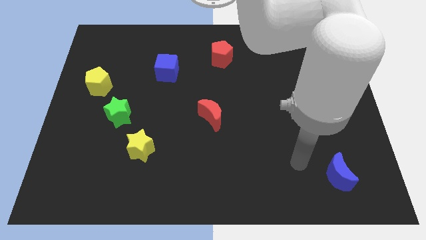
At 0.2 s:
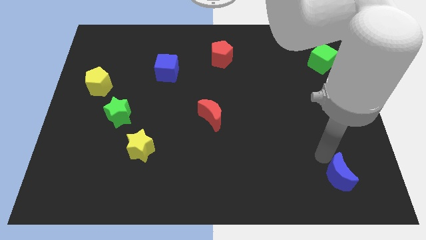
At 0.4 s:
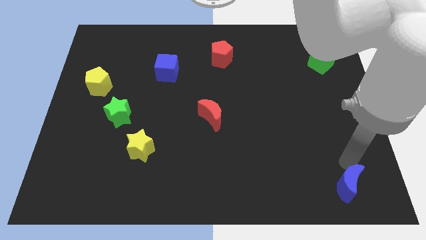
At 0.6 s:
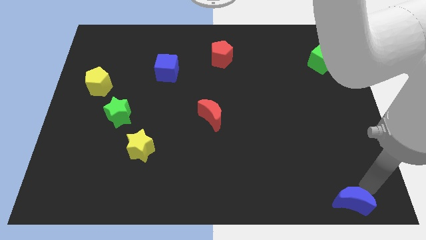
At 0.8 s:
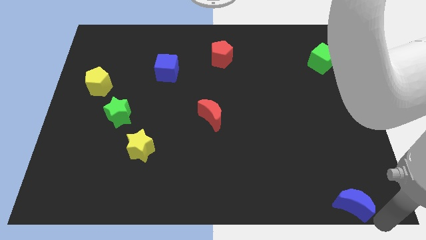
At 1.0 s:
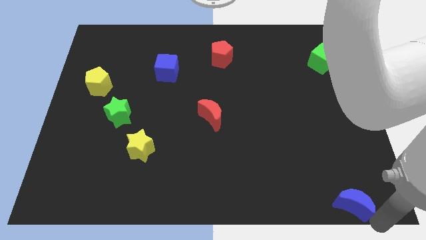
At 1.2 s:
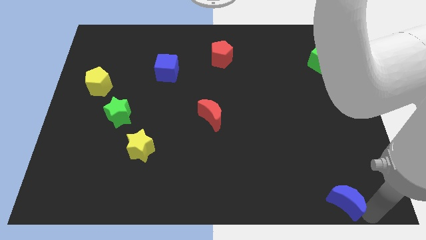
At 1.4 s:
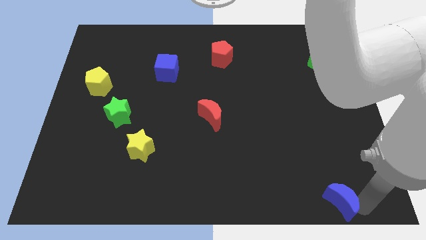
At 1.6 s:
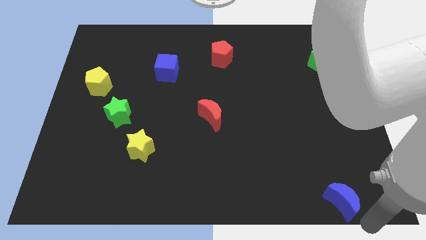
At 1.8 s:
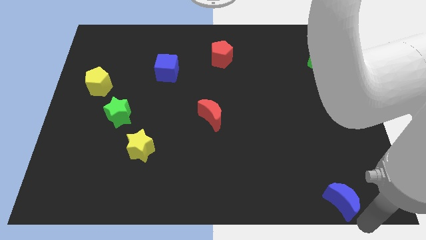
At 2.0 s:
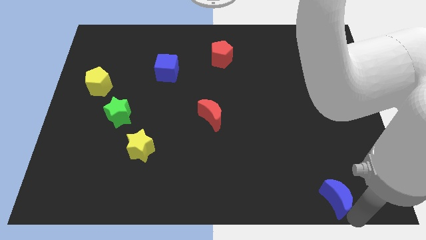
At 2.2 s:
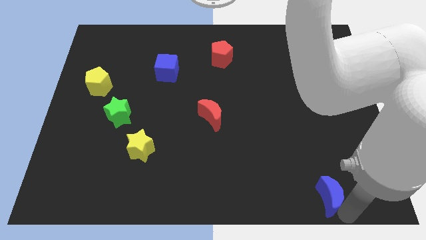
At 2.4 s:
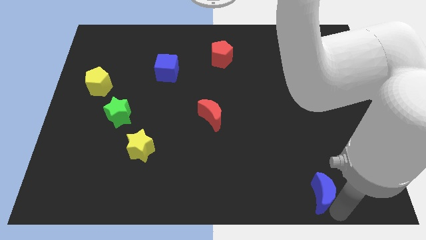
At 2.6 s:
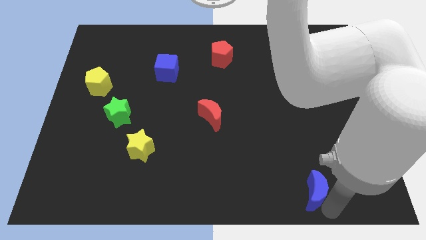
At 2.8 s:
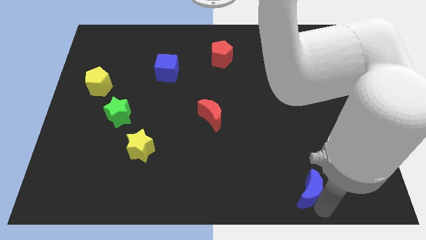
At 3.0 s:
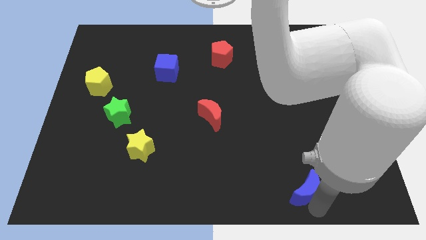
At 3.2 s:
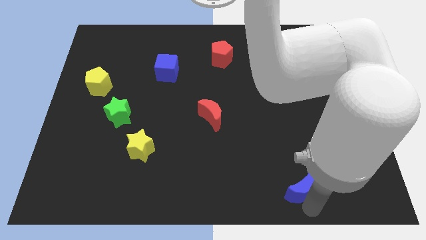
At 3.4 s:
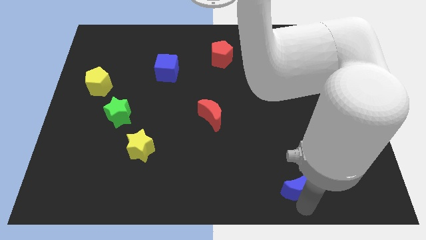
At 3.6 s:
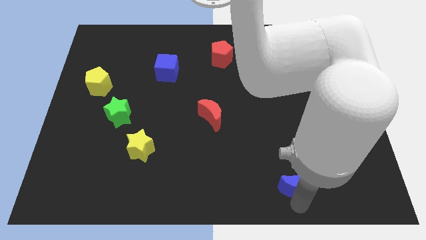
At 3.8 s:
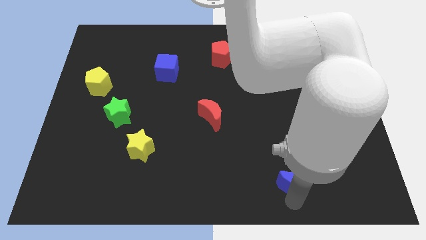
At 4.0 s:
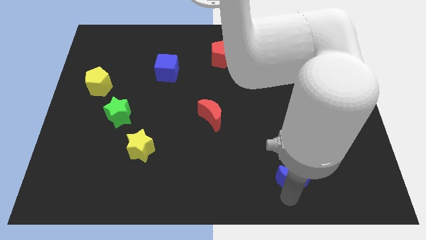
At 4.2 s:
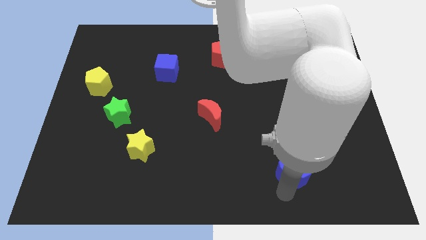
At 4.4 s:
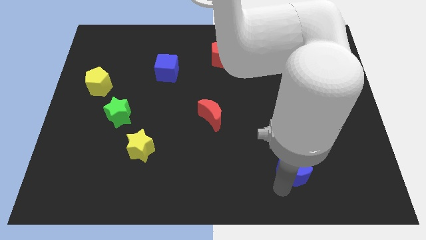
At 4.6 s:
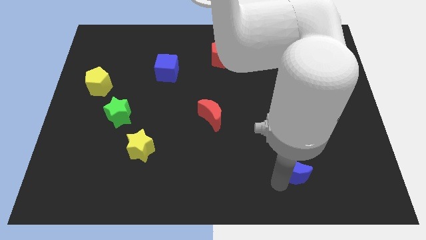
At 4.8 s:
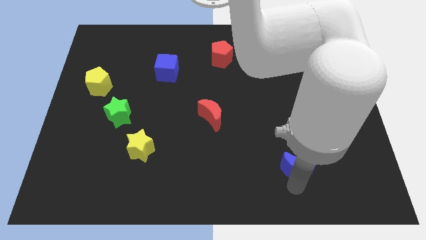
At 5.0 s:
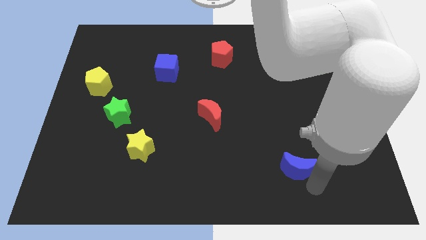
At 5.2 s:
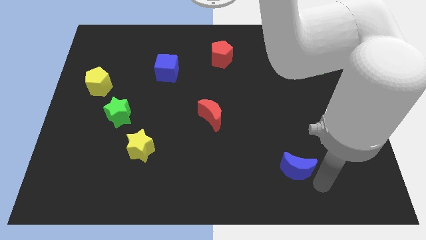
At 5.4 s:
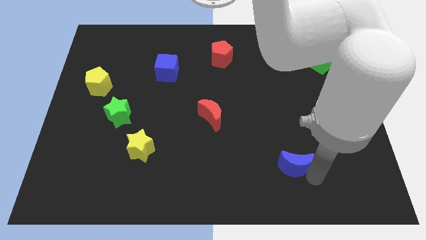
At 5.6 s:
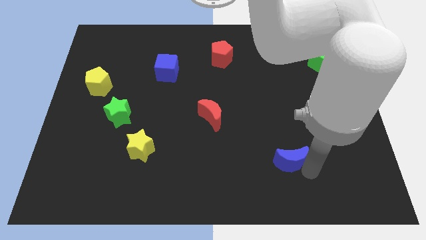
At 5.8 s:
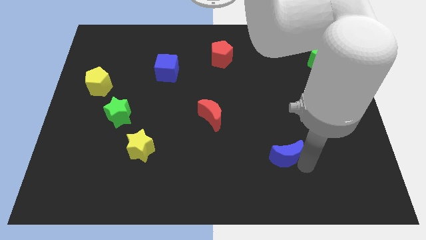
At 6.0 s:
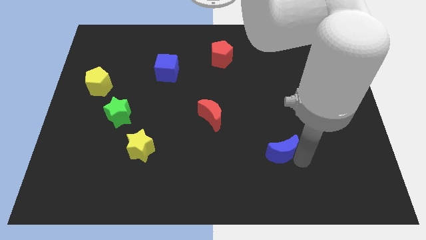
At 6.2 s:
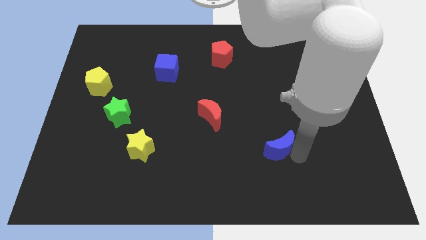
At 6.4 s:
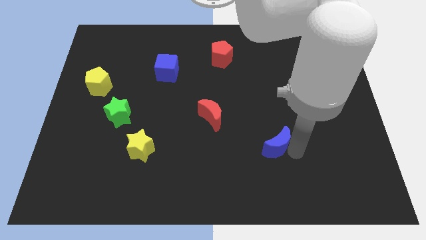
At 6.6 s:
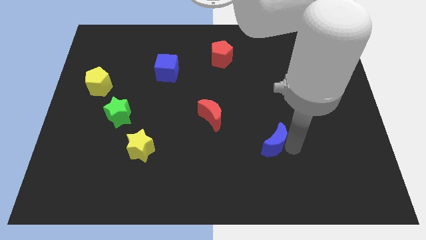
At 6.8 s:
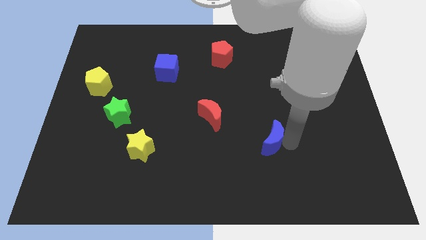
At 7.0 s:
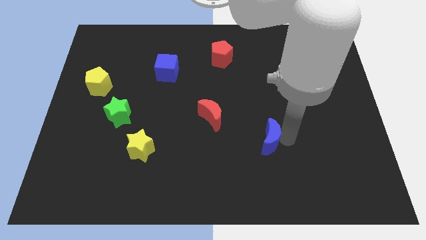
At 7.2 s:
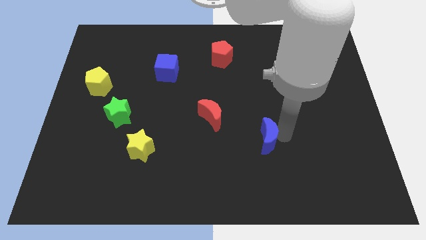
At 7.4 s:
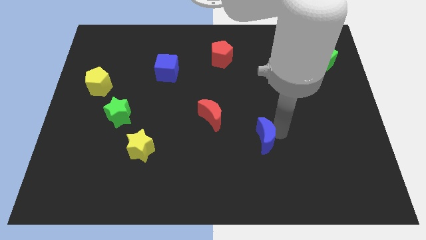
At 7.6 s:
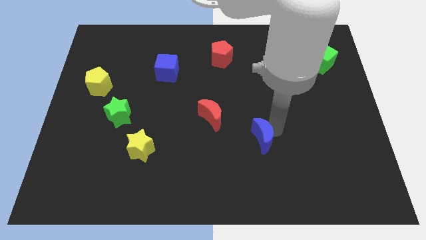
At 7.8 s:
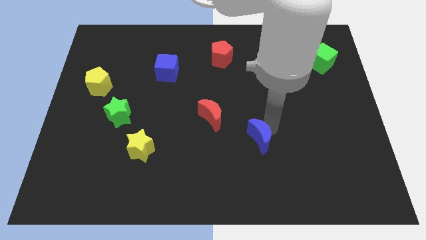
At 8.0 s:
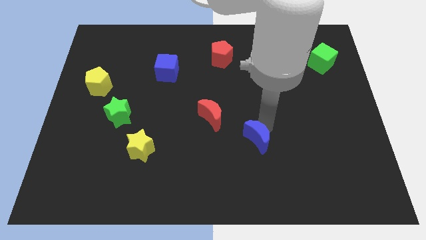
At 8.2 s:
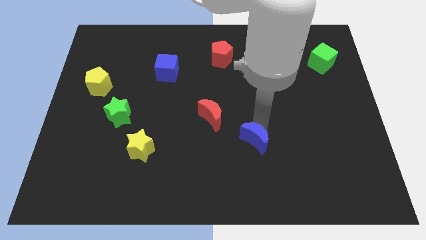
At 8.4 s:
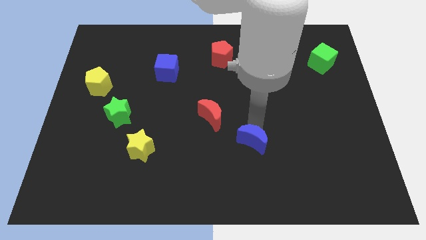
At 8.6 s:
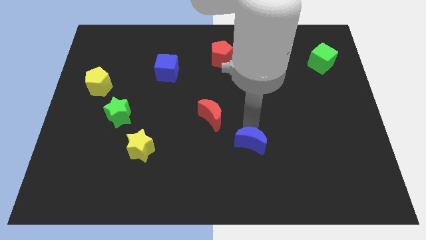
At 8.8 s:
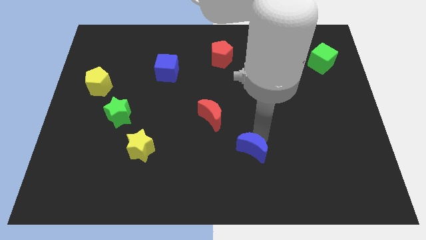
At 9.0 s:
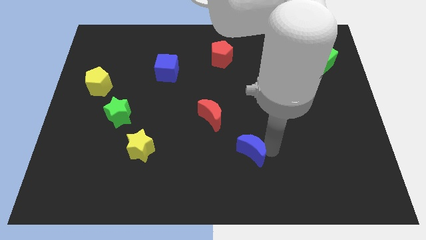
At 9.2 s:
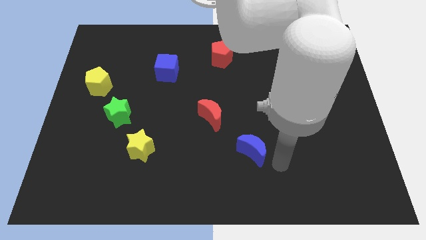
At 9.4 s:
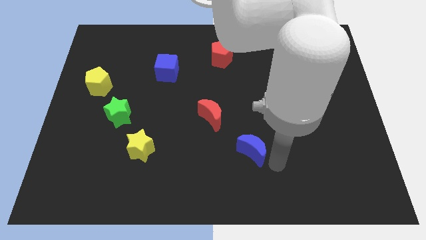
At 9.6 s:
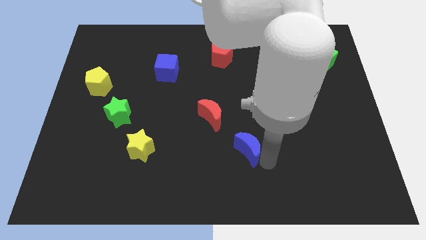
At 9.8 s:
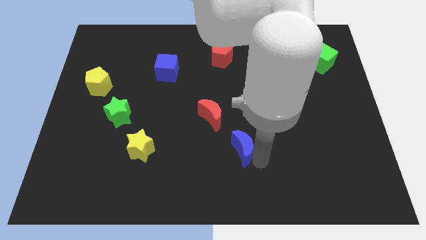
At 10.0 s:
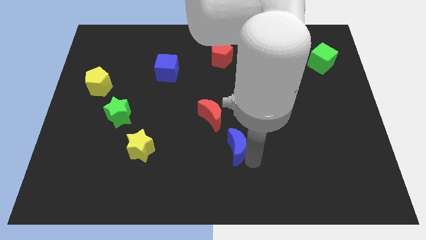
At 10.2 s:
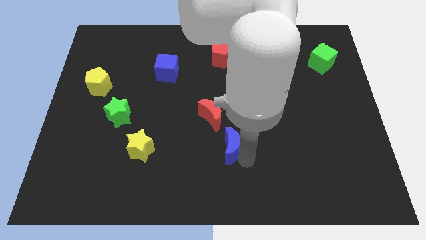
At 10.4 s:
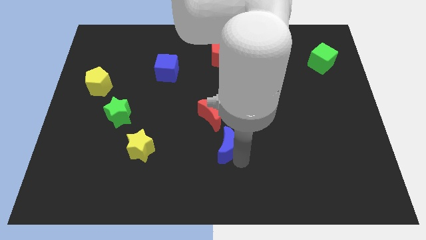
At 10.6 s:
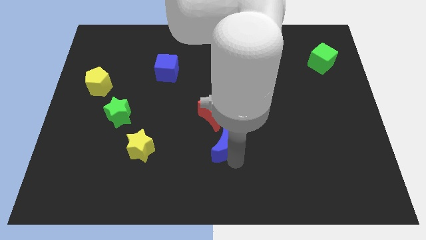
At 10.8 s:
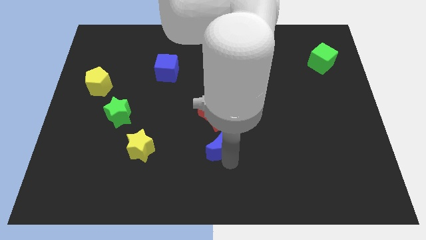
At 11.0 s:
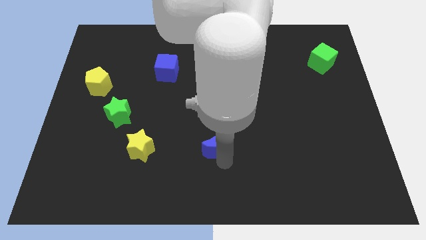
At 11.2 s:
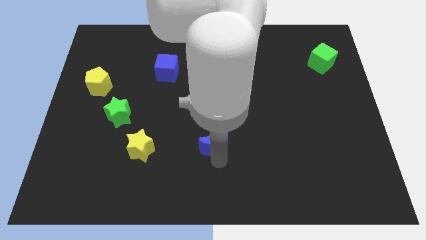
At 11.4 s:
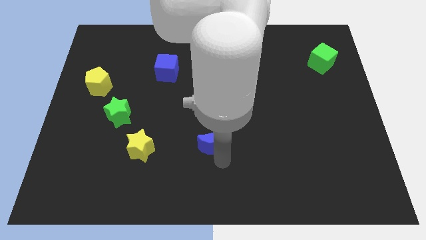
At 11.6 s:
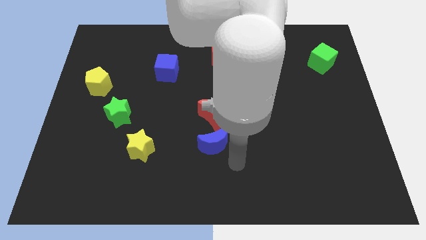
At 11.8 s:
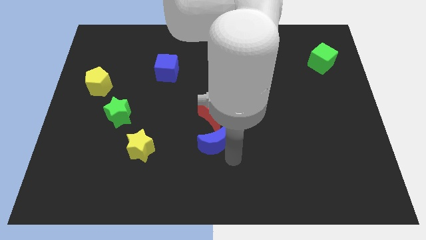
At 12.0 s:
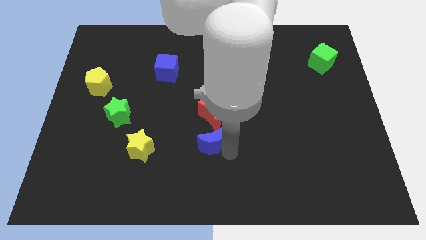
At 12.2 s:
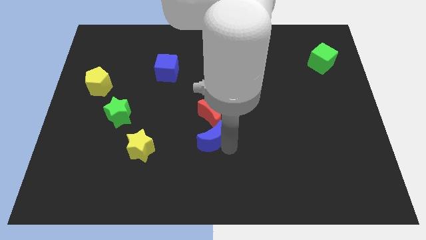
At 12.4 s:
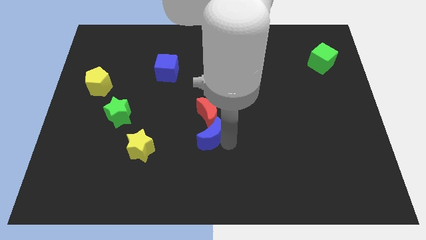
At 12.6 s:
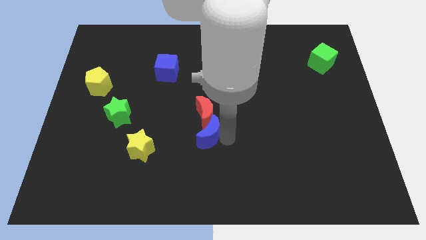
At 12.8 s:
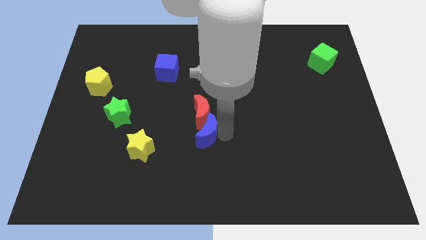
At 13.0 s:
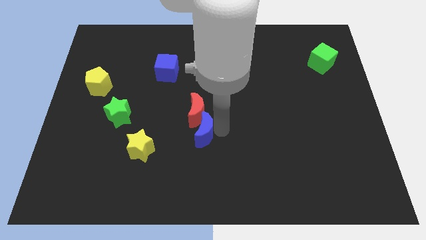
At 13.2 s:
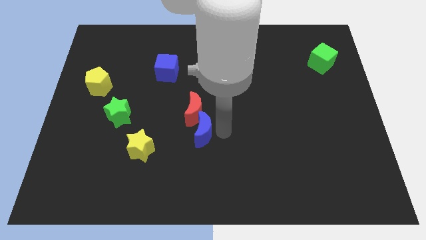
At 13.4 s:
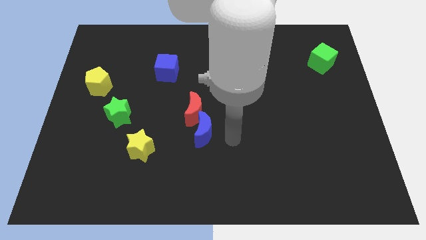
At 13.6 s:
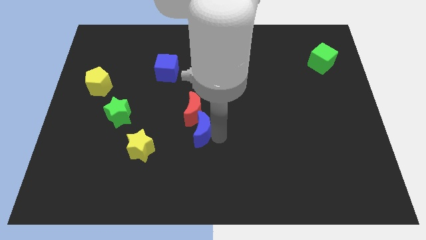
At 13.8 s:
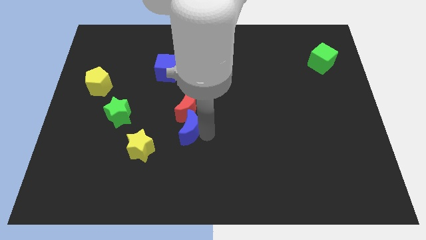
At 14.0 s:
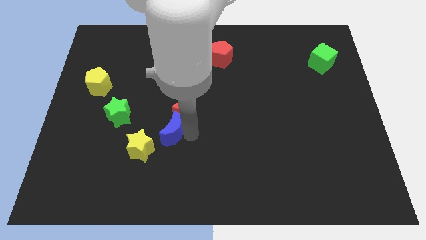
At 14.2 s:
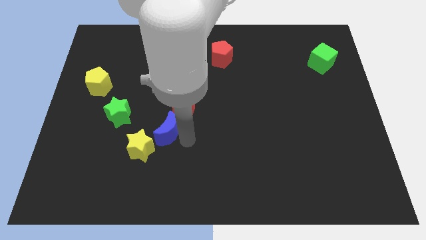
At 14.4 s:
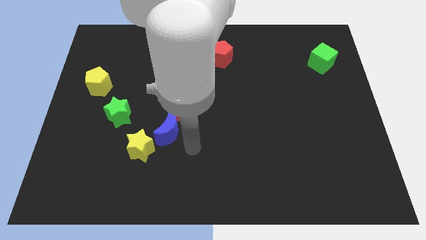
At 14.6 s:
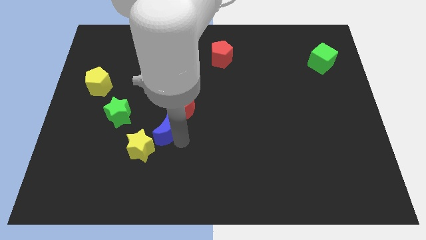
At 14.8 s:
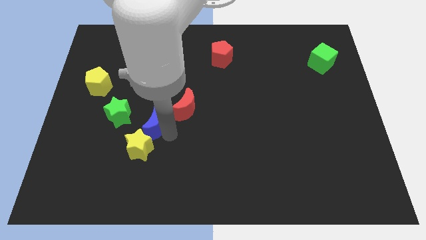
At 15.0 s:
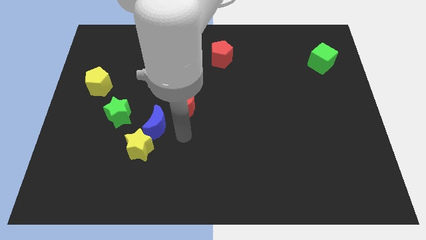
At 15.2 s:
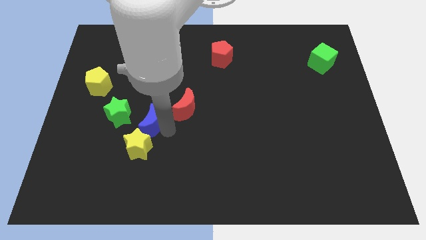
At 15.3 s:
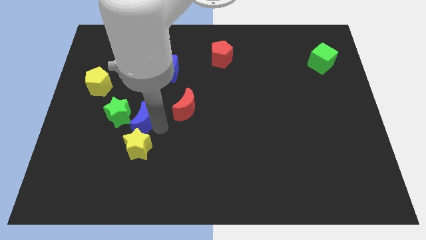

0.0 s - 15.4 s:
move the blue moon towards the green star

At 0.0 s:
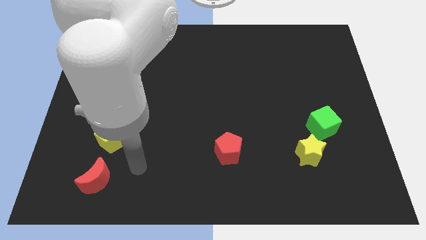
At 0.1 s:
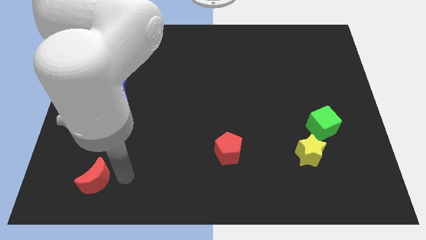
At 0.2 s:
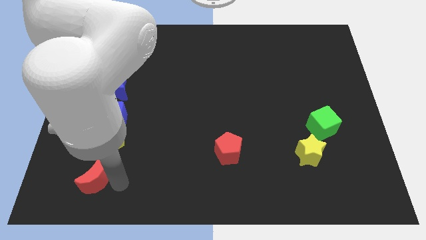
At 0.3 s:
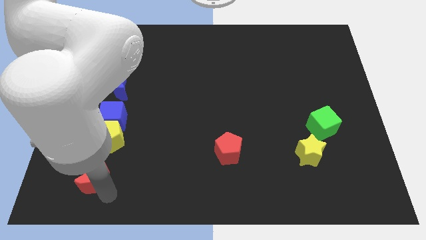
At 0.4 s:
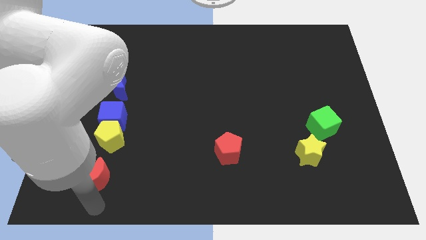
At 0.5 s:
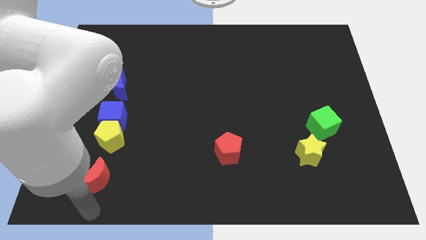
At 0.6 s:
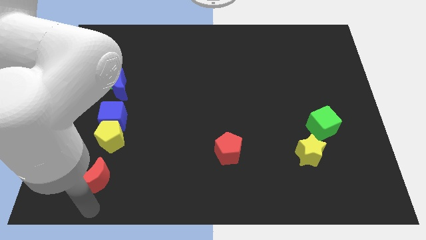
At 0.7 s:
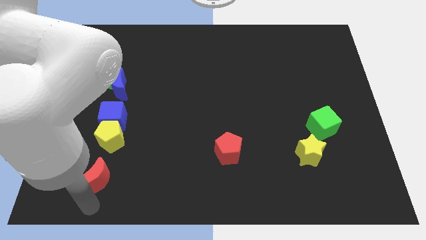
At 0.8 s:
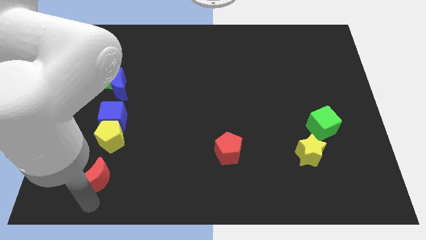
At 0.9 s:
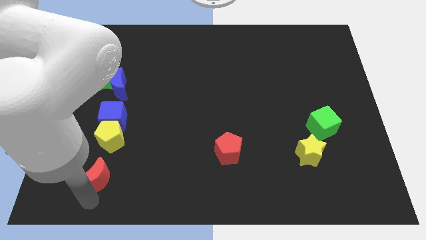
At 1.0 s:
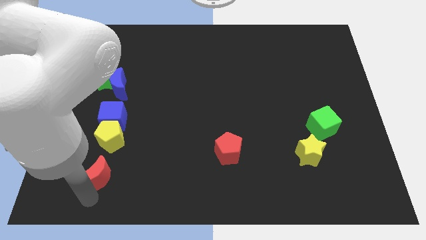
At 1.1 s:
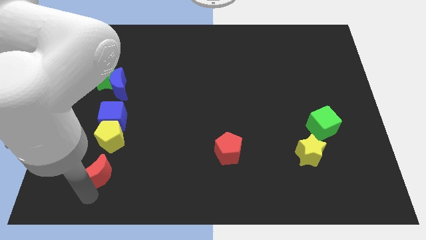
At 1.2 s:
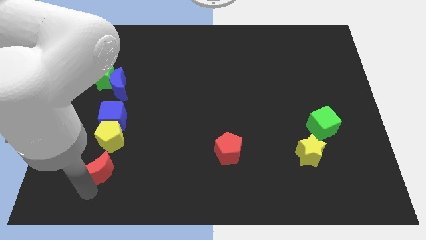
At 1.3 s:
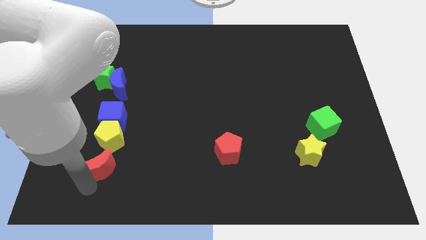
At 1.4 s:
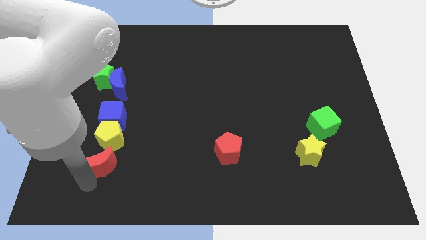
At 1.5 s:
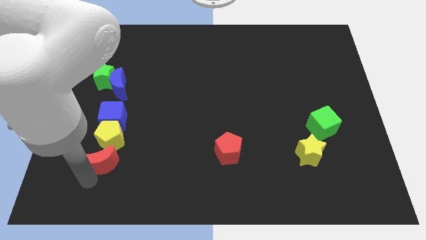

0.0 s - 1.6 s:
put the red moon close to the yellow pentagon
